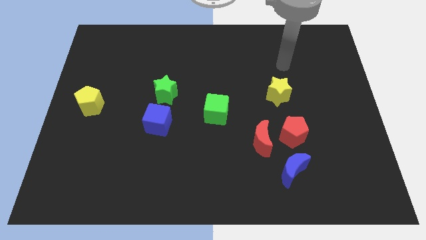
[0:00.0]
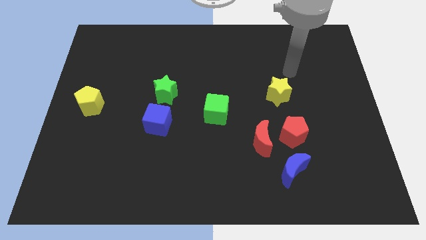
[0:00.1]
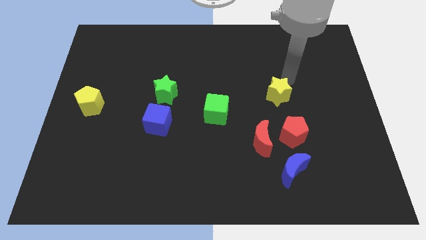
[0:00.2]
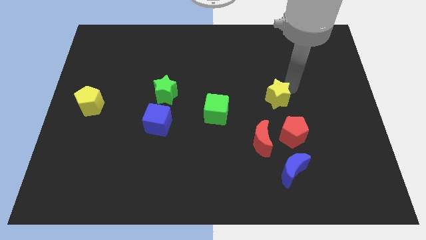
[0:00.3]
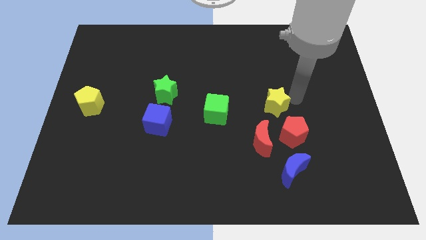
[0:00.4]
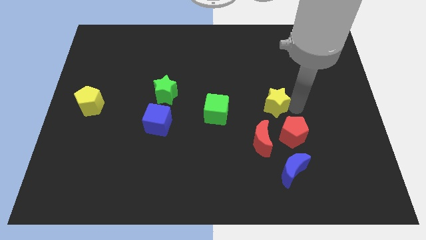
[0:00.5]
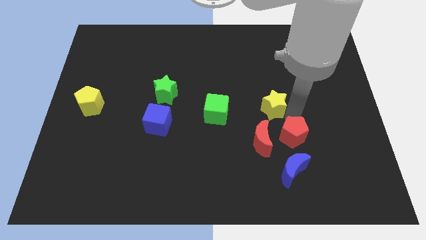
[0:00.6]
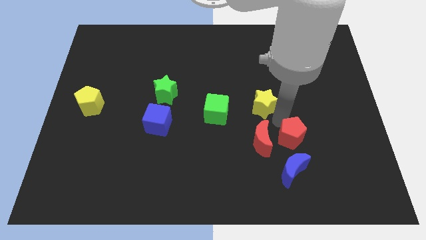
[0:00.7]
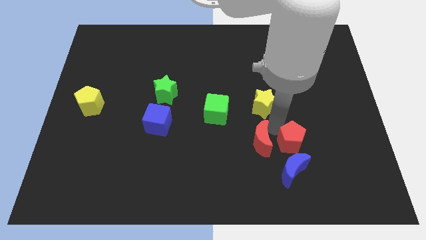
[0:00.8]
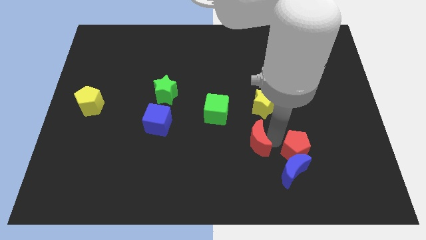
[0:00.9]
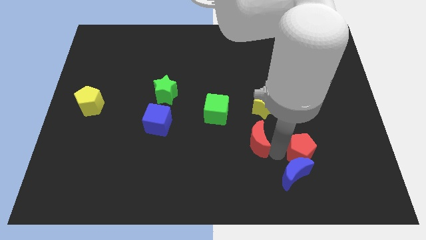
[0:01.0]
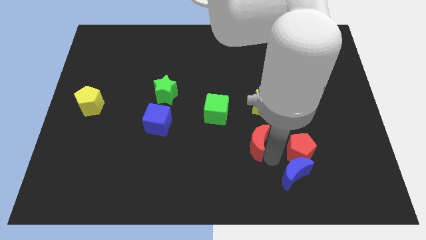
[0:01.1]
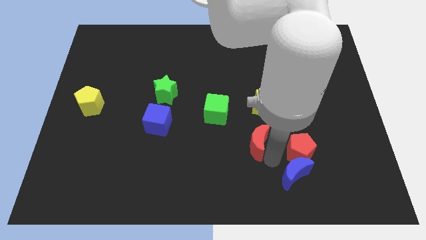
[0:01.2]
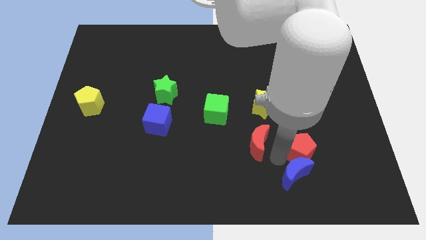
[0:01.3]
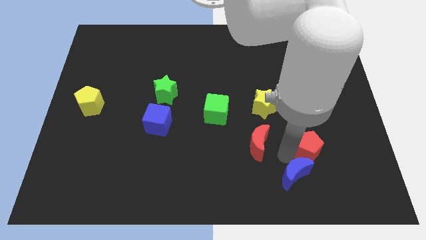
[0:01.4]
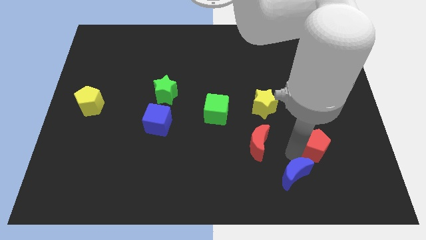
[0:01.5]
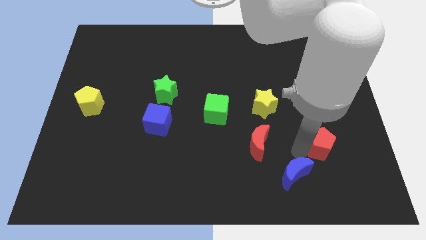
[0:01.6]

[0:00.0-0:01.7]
pull the red pentagon apart from the red moon and blue moon

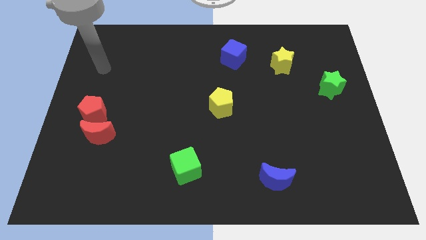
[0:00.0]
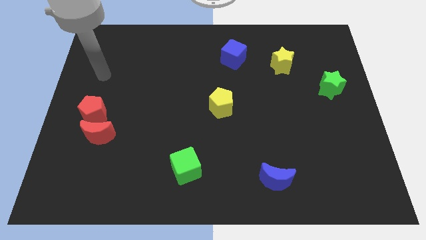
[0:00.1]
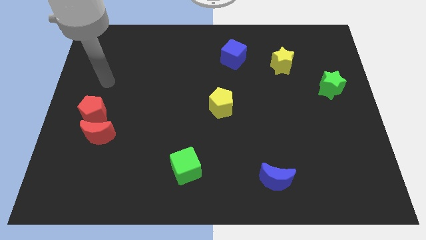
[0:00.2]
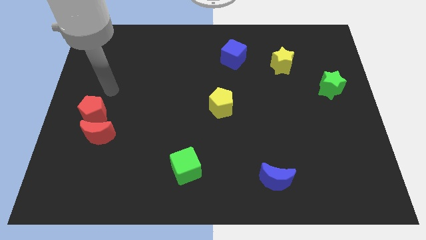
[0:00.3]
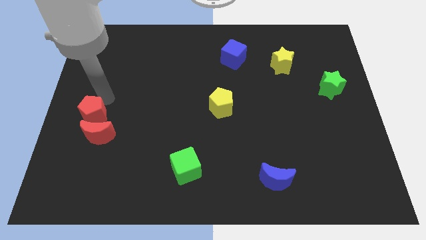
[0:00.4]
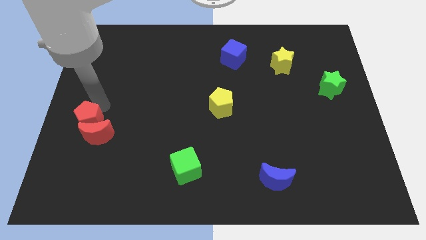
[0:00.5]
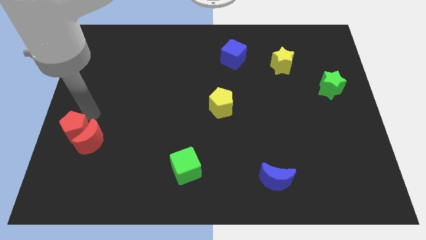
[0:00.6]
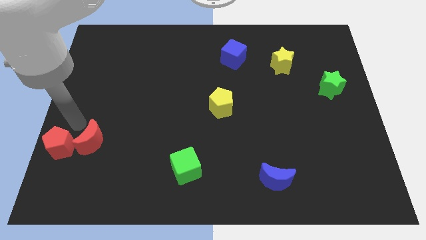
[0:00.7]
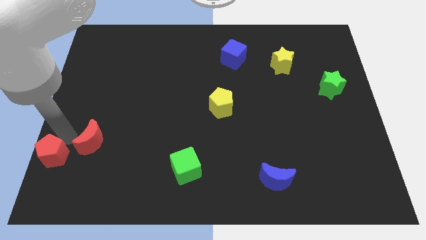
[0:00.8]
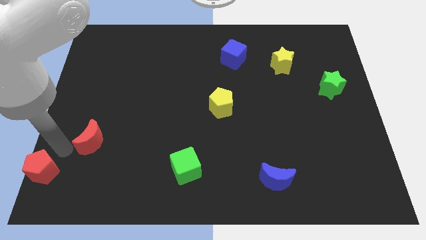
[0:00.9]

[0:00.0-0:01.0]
move the red moon away from the red pentagon

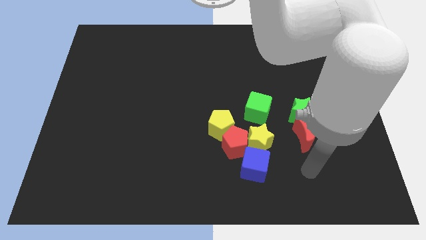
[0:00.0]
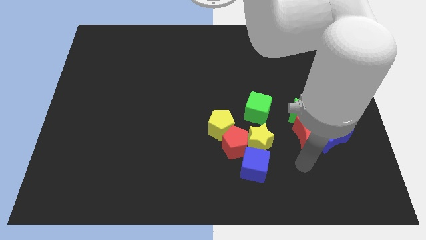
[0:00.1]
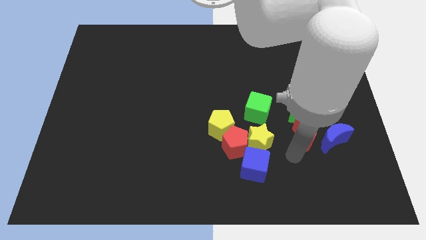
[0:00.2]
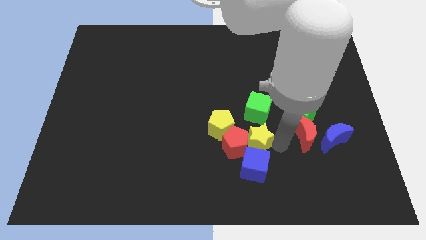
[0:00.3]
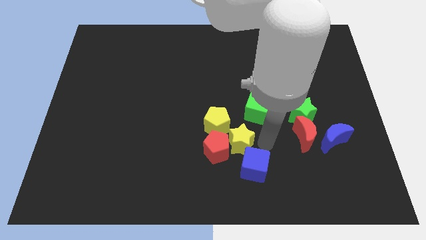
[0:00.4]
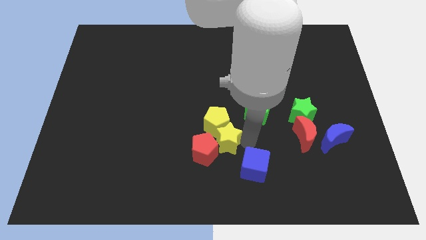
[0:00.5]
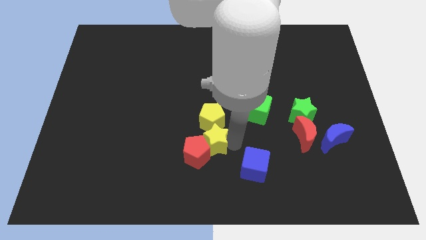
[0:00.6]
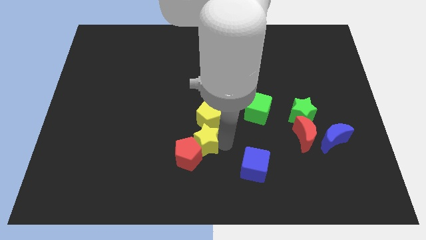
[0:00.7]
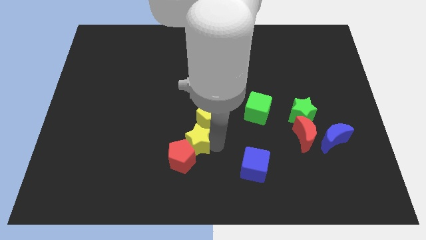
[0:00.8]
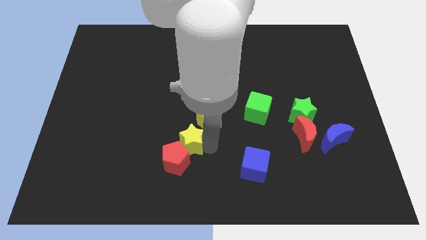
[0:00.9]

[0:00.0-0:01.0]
pull the red pentagon apart from the yellow star, yellow pentagon, and blue cube

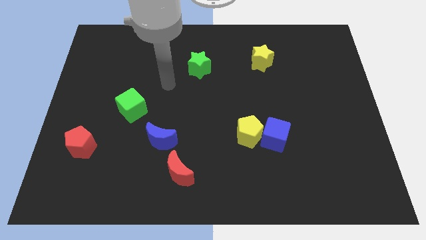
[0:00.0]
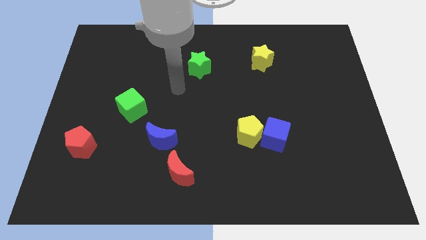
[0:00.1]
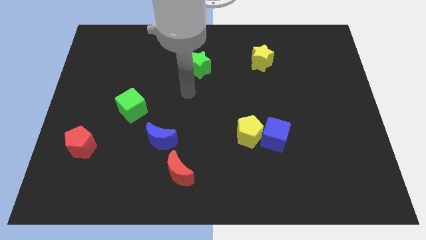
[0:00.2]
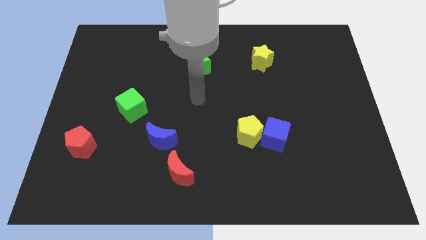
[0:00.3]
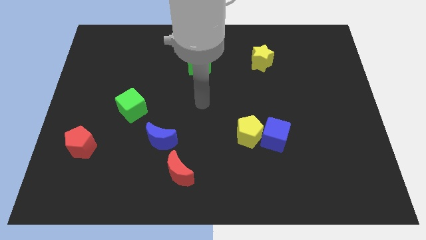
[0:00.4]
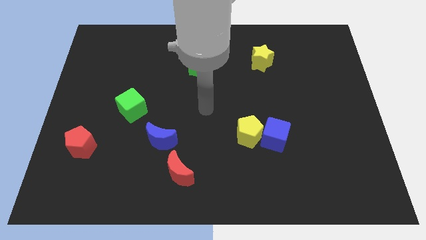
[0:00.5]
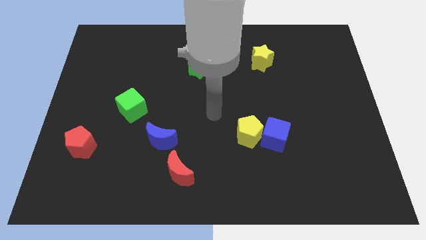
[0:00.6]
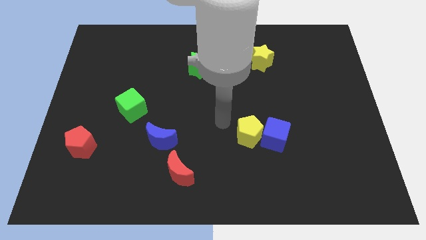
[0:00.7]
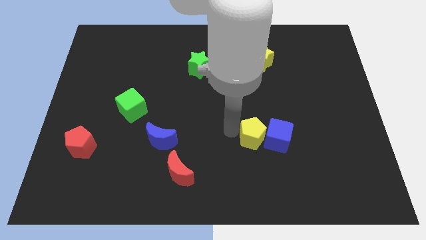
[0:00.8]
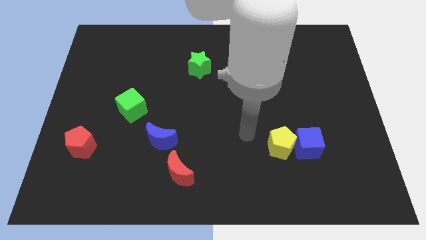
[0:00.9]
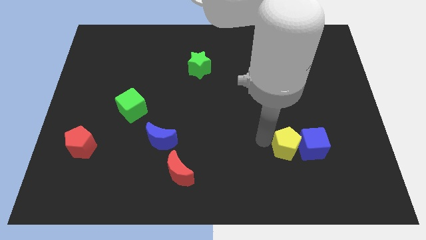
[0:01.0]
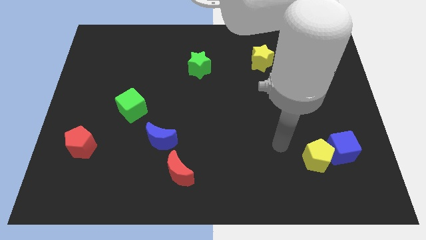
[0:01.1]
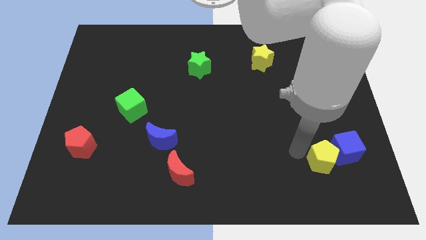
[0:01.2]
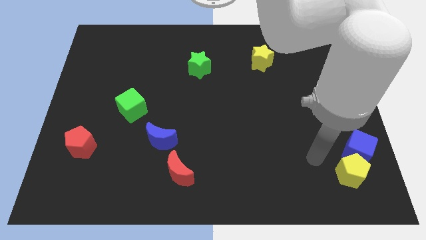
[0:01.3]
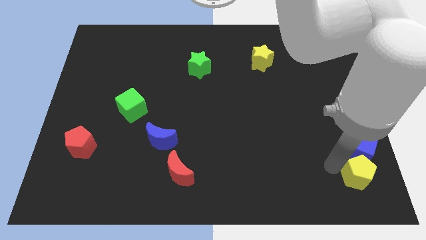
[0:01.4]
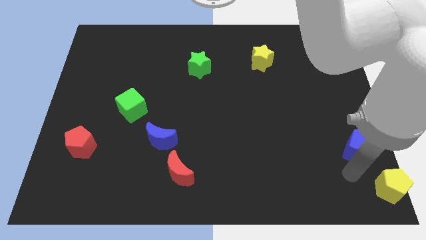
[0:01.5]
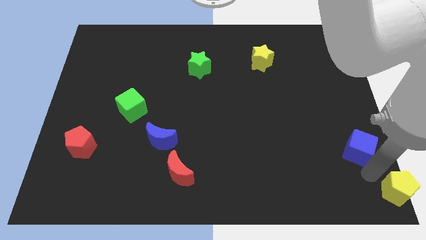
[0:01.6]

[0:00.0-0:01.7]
move the blue cube away from the yellow pentagon

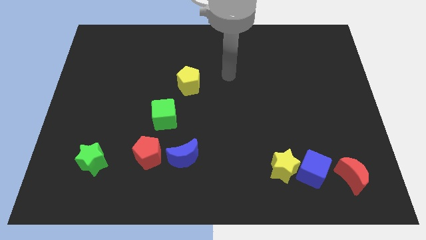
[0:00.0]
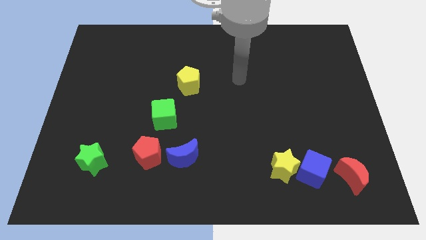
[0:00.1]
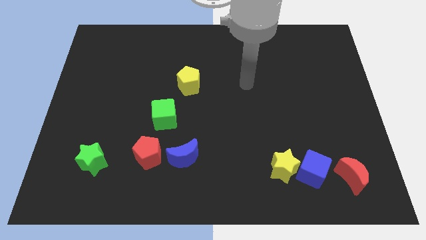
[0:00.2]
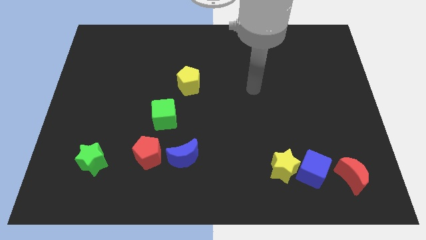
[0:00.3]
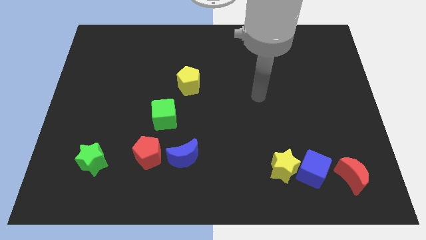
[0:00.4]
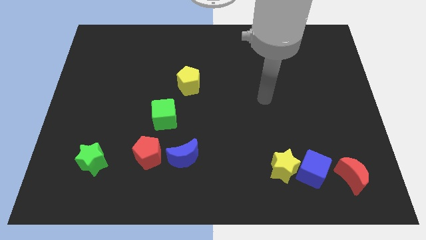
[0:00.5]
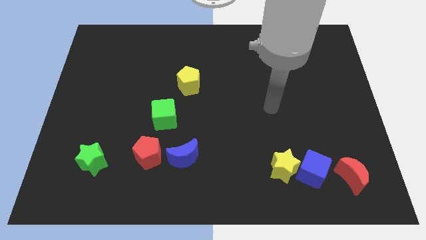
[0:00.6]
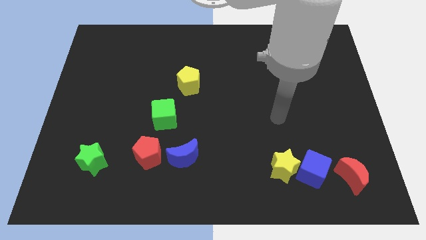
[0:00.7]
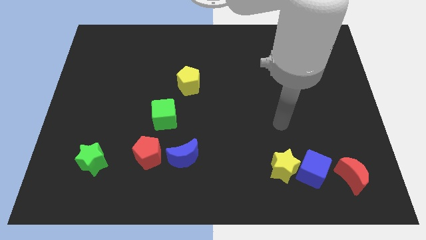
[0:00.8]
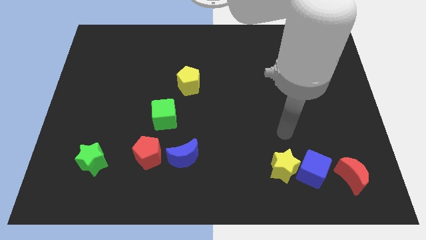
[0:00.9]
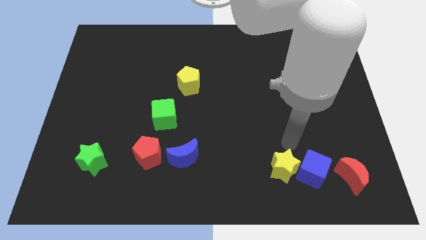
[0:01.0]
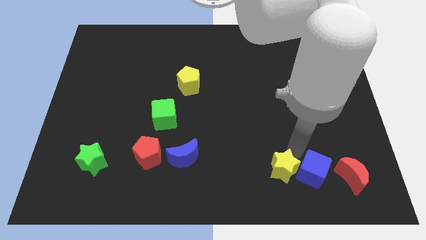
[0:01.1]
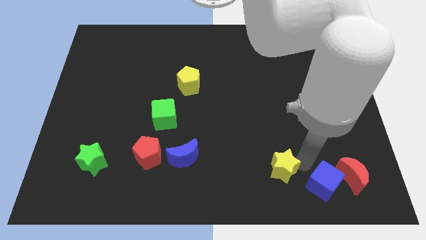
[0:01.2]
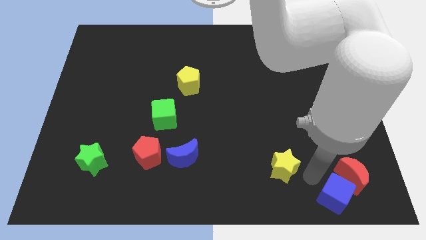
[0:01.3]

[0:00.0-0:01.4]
pull the yellow star apart from the blue cube

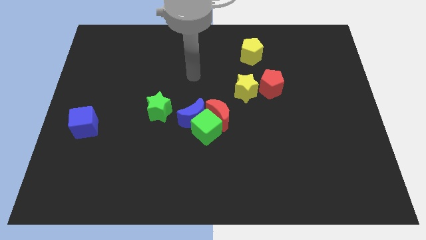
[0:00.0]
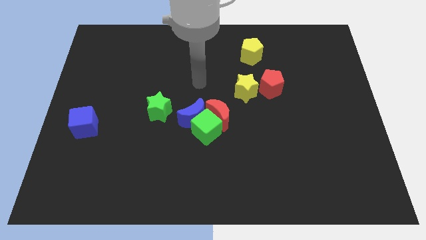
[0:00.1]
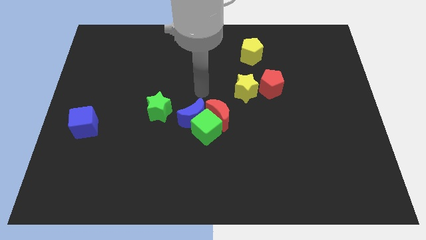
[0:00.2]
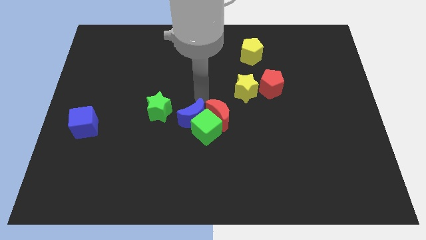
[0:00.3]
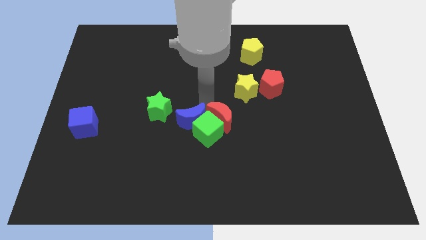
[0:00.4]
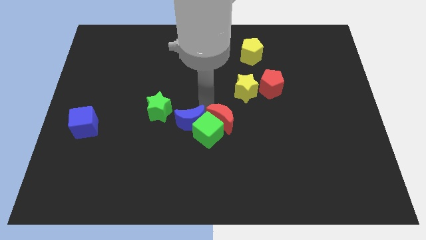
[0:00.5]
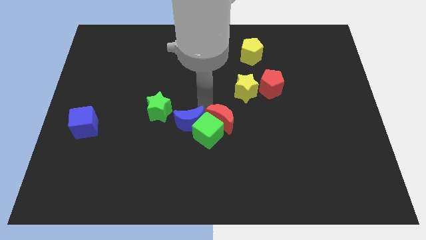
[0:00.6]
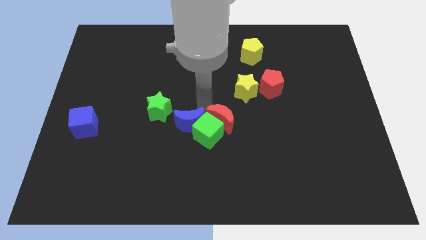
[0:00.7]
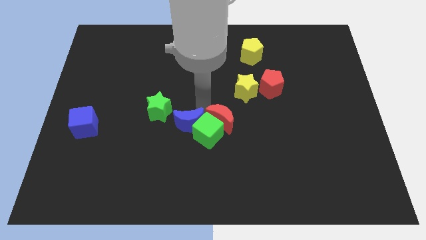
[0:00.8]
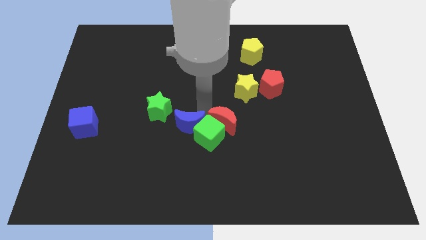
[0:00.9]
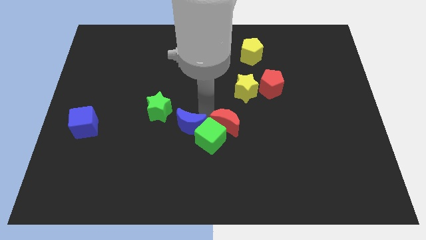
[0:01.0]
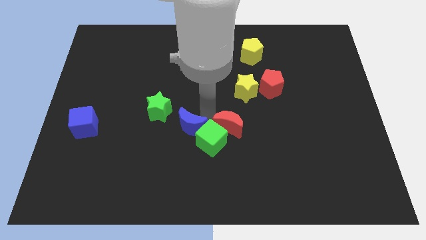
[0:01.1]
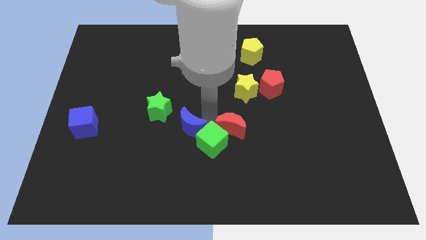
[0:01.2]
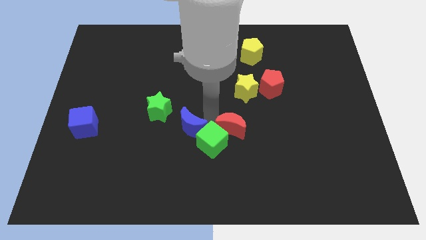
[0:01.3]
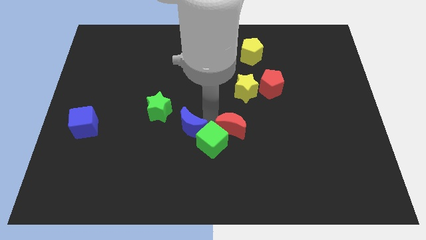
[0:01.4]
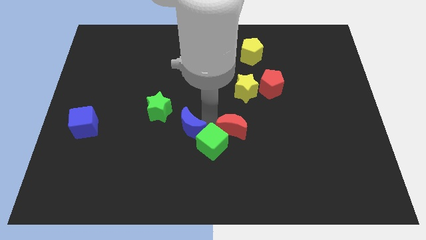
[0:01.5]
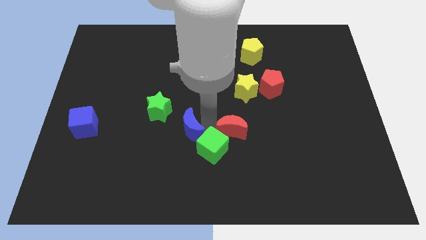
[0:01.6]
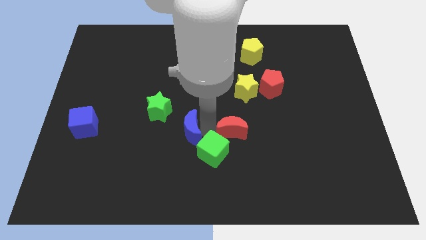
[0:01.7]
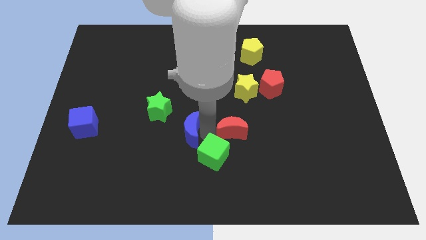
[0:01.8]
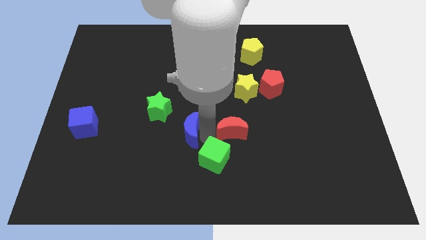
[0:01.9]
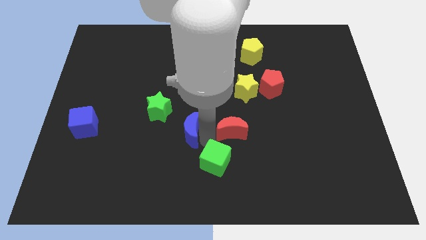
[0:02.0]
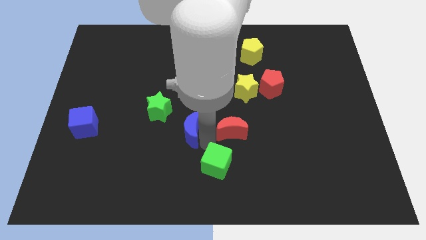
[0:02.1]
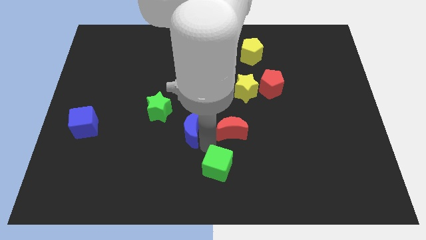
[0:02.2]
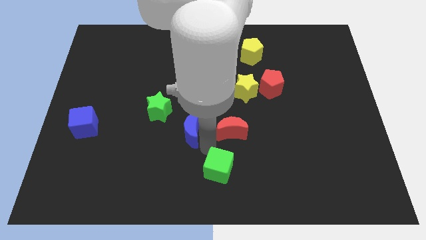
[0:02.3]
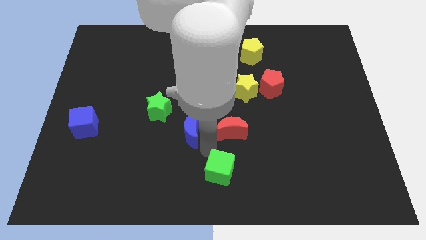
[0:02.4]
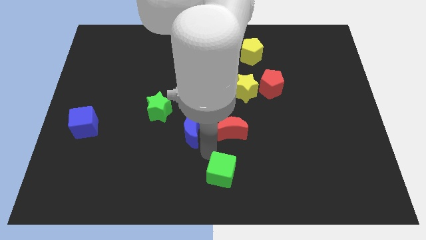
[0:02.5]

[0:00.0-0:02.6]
move the green cube away from the blue moon and red moon
